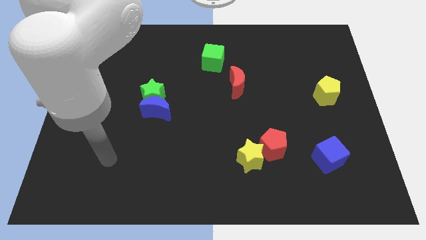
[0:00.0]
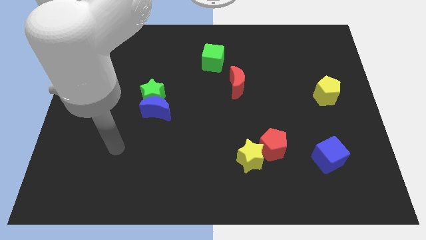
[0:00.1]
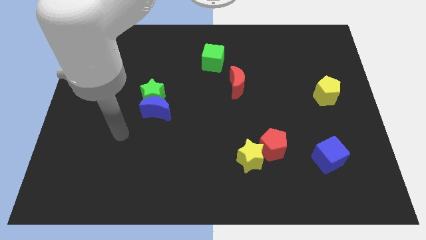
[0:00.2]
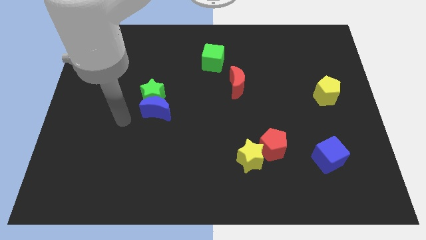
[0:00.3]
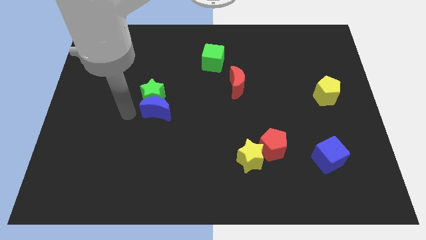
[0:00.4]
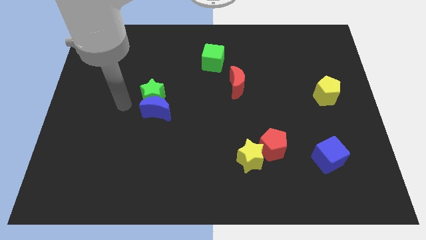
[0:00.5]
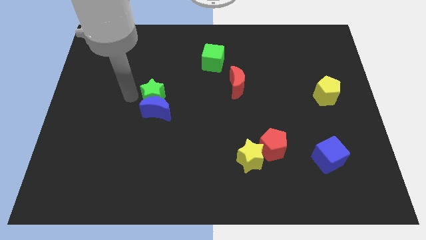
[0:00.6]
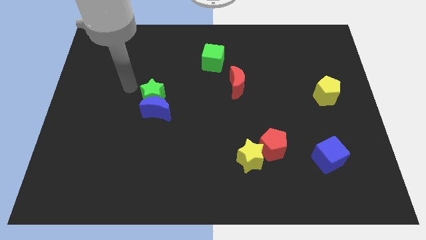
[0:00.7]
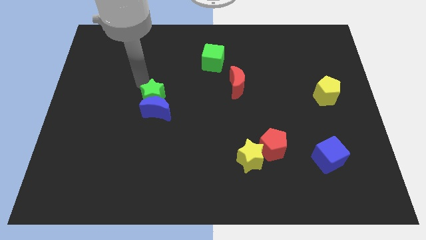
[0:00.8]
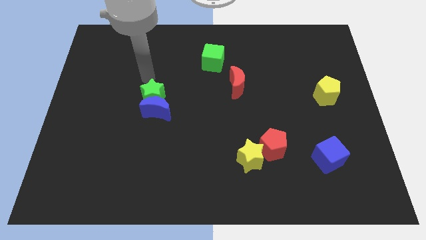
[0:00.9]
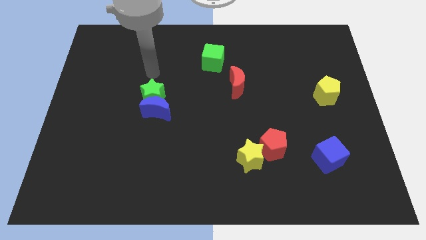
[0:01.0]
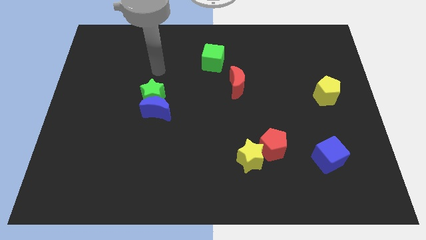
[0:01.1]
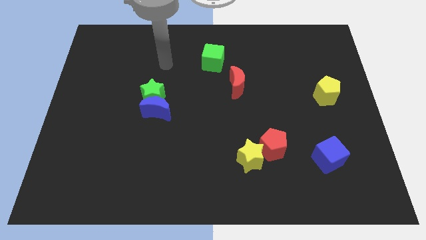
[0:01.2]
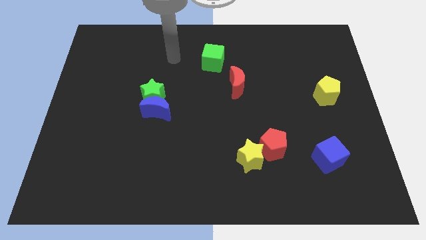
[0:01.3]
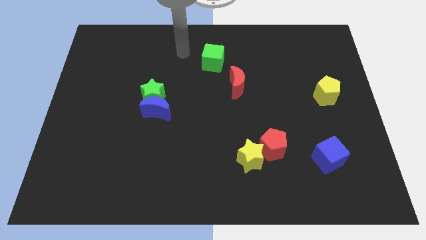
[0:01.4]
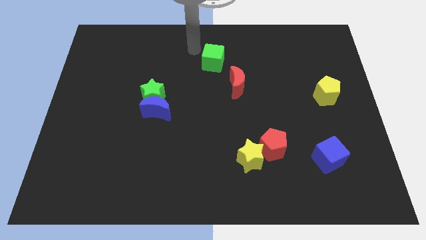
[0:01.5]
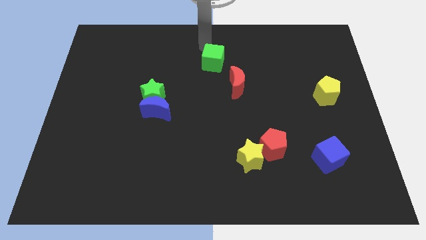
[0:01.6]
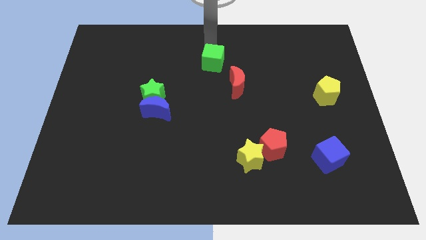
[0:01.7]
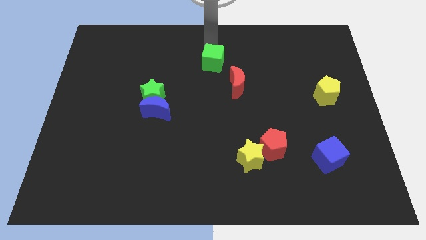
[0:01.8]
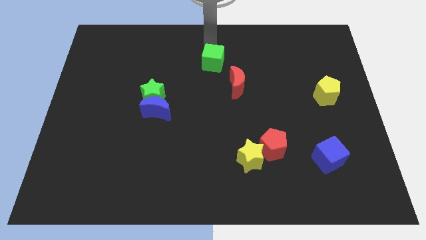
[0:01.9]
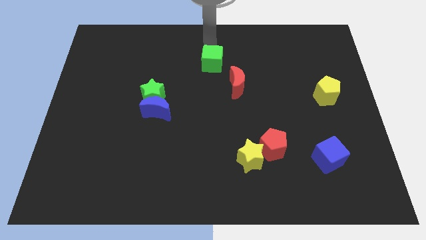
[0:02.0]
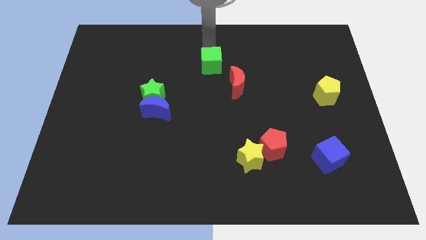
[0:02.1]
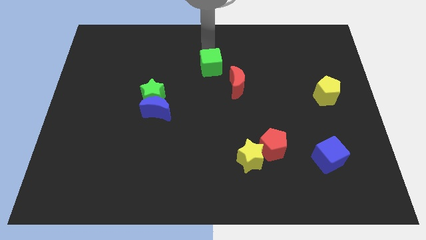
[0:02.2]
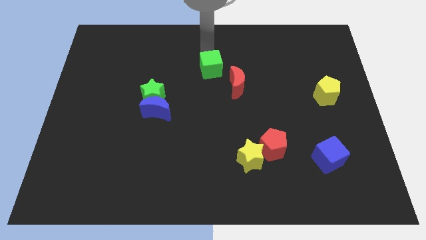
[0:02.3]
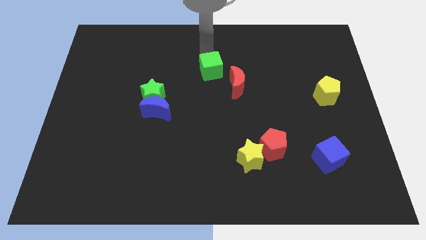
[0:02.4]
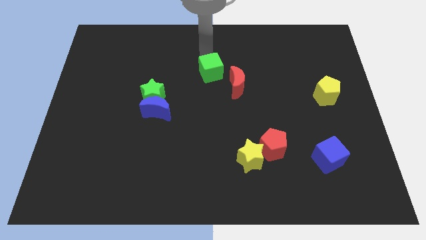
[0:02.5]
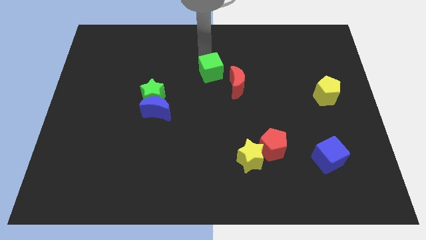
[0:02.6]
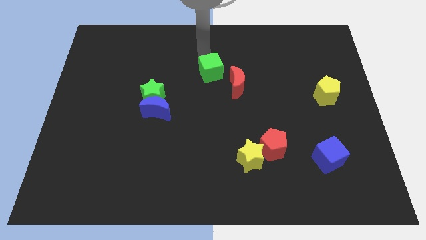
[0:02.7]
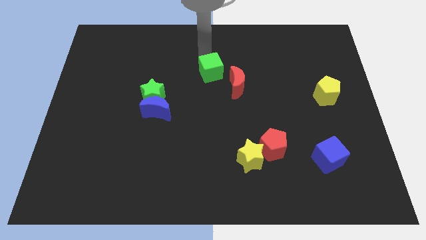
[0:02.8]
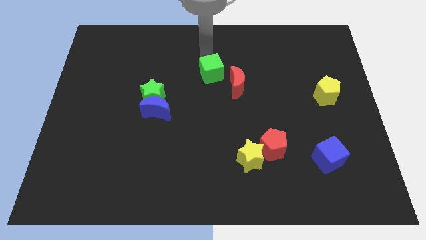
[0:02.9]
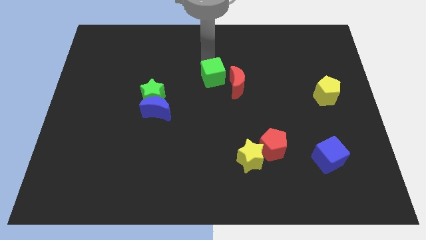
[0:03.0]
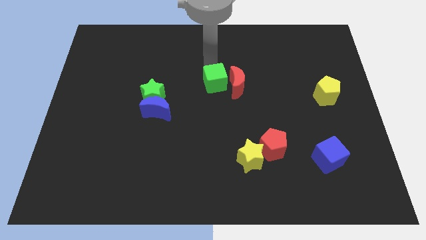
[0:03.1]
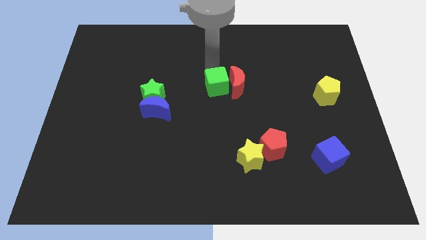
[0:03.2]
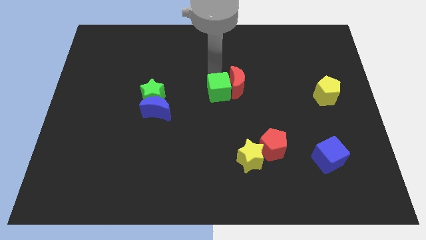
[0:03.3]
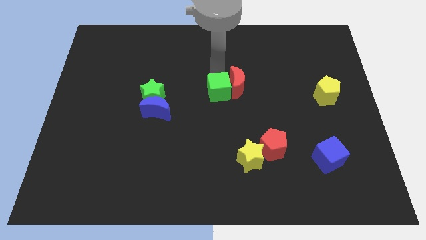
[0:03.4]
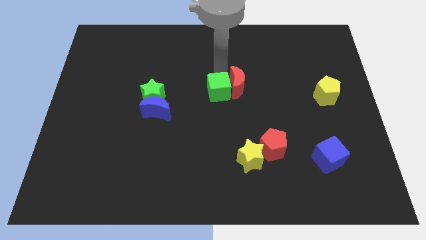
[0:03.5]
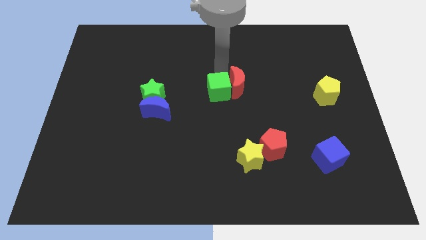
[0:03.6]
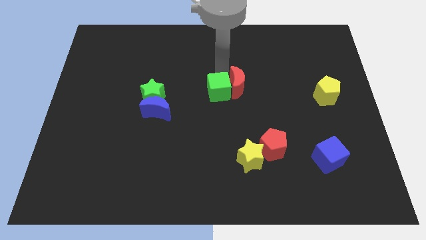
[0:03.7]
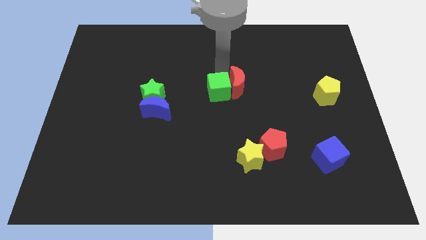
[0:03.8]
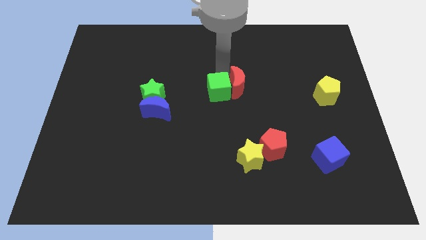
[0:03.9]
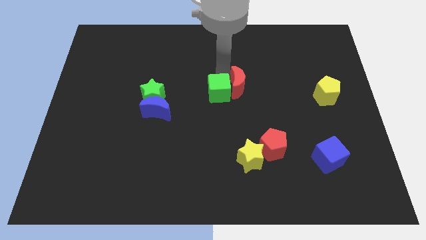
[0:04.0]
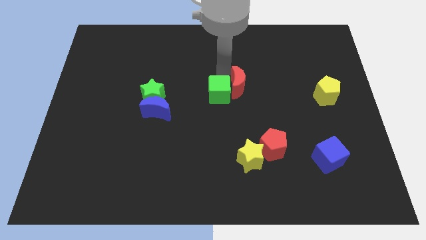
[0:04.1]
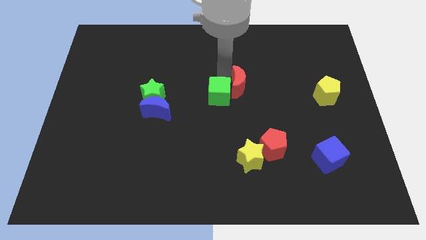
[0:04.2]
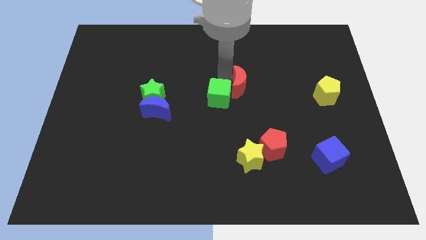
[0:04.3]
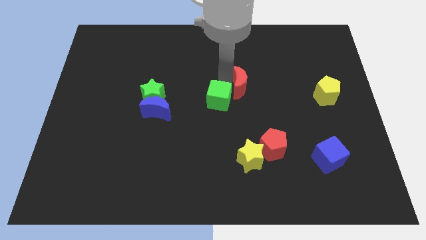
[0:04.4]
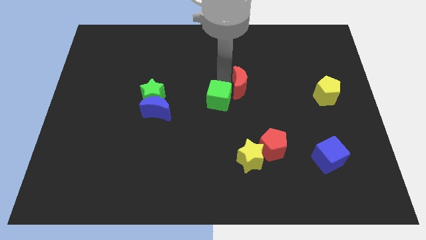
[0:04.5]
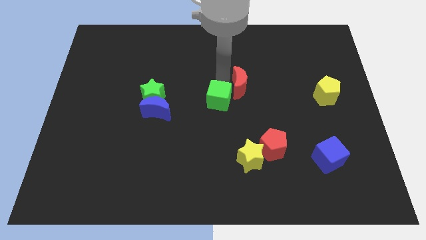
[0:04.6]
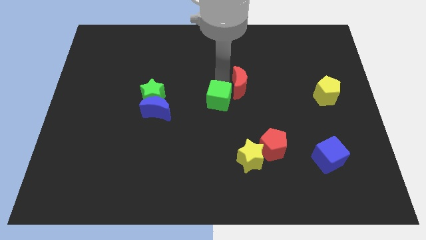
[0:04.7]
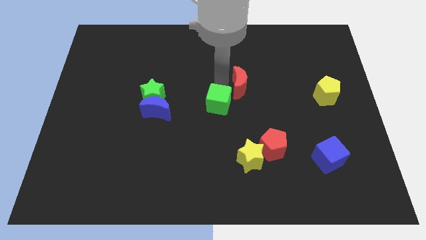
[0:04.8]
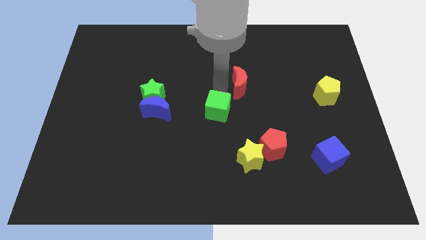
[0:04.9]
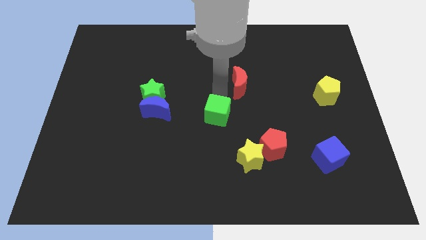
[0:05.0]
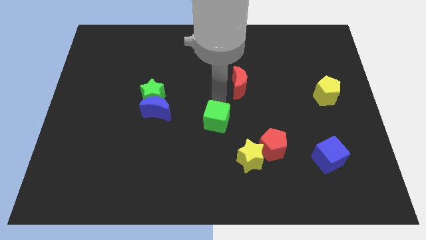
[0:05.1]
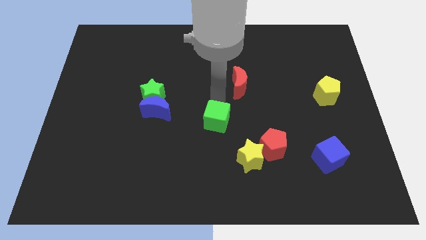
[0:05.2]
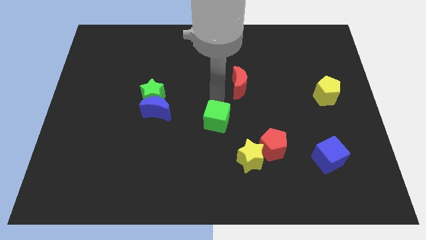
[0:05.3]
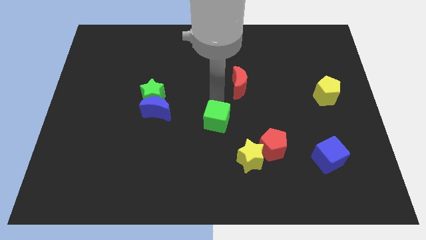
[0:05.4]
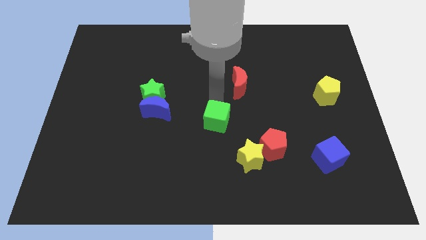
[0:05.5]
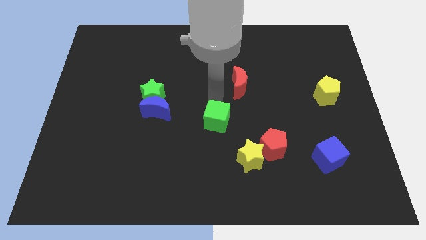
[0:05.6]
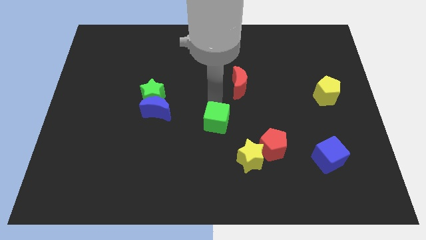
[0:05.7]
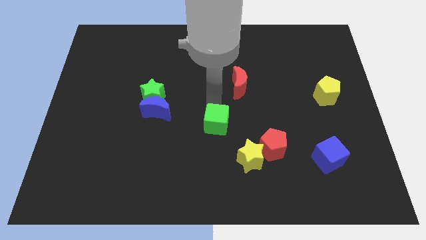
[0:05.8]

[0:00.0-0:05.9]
move the green cube downwards

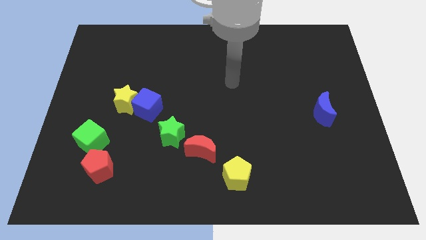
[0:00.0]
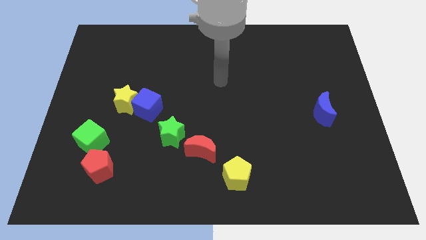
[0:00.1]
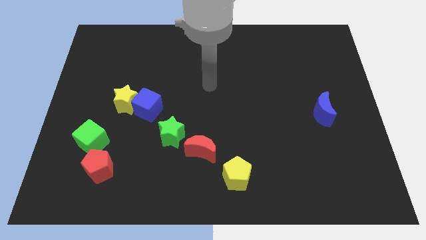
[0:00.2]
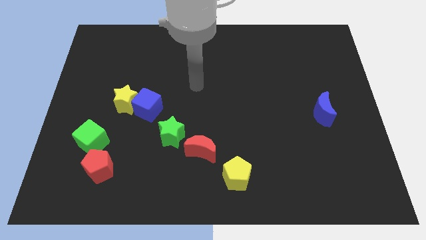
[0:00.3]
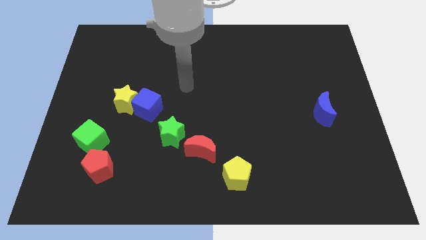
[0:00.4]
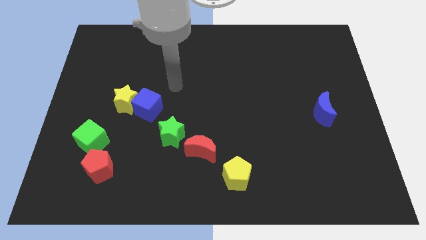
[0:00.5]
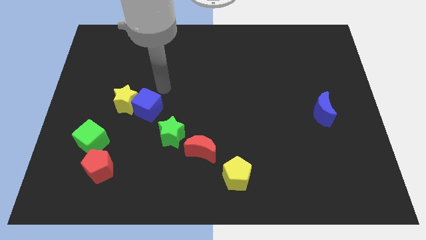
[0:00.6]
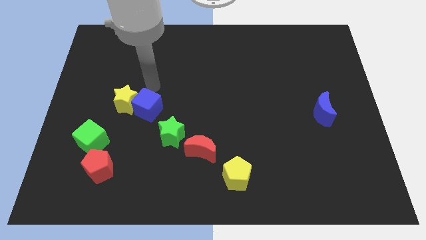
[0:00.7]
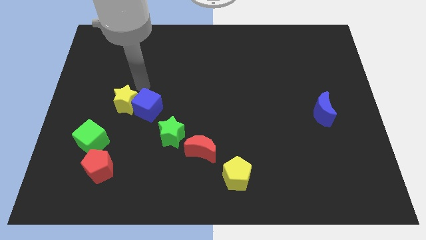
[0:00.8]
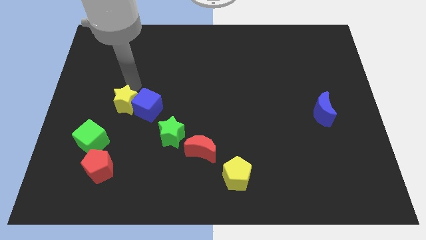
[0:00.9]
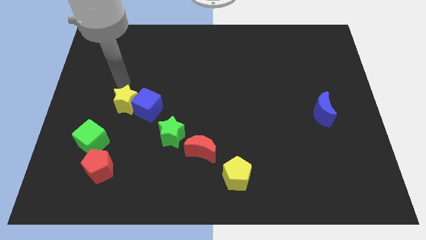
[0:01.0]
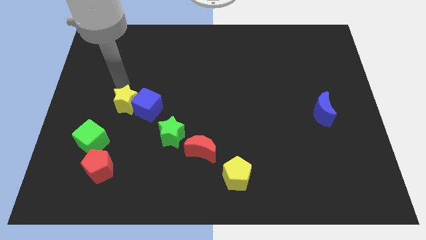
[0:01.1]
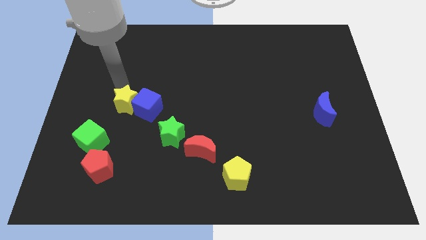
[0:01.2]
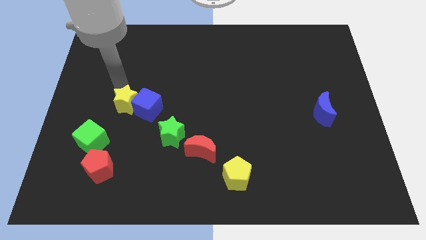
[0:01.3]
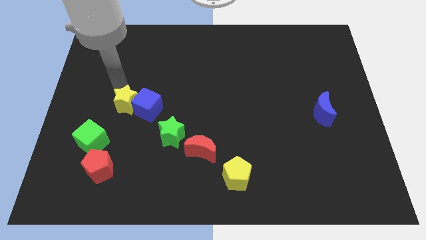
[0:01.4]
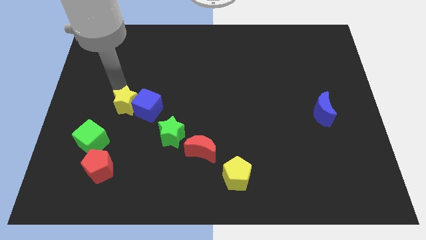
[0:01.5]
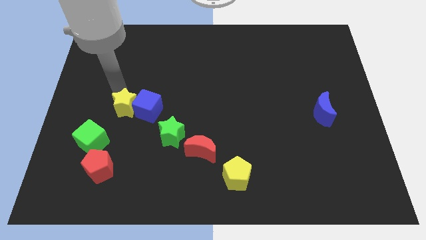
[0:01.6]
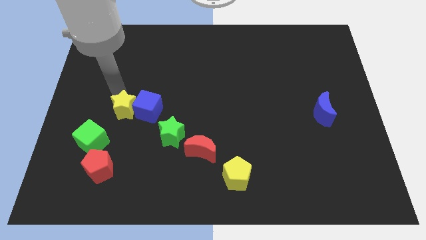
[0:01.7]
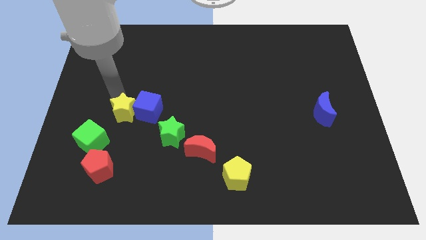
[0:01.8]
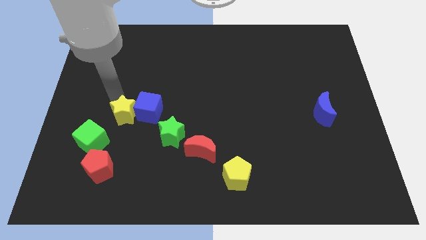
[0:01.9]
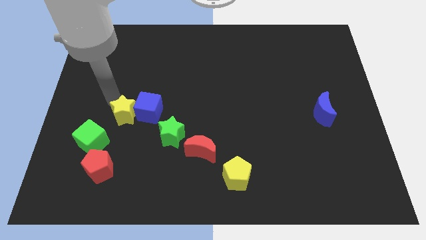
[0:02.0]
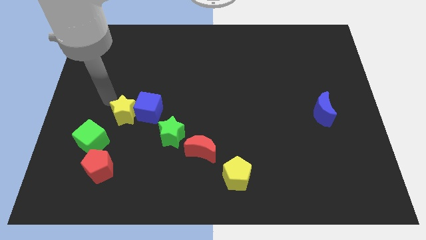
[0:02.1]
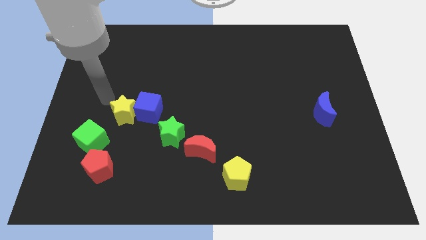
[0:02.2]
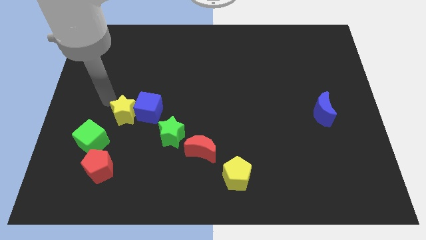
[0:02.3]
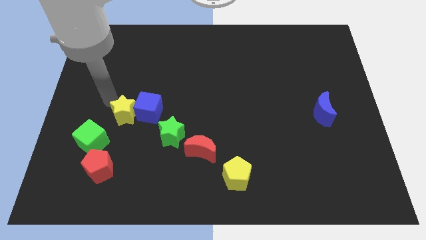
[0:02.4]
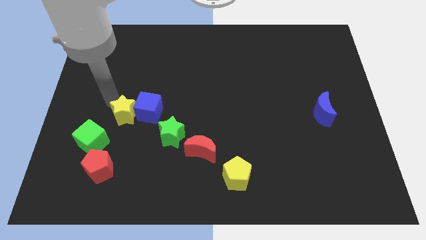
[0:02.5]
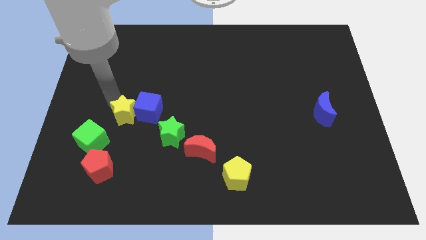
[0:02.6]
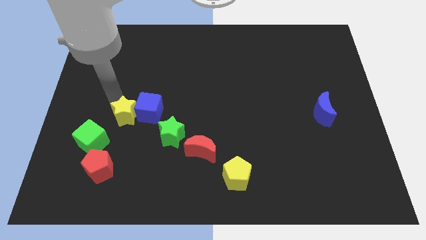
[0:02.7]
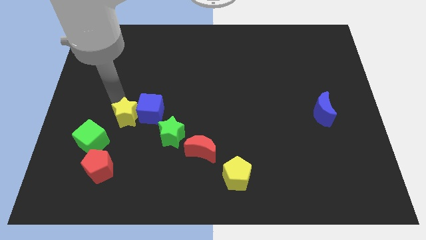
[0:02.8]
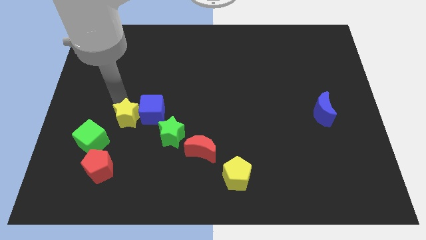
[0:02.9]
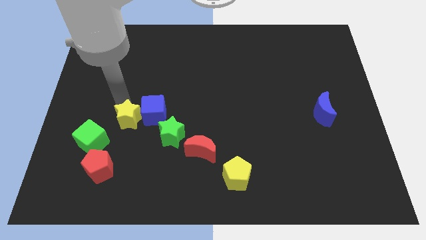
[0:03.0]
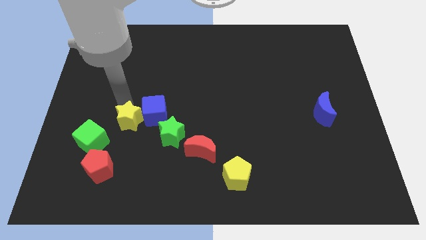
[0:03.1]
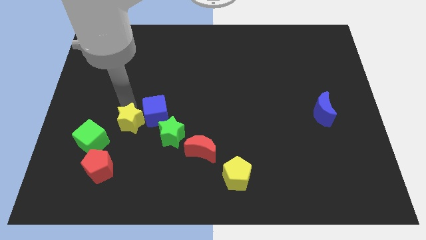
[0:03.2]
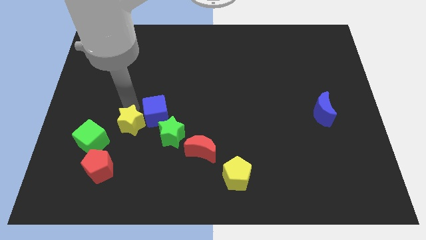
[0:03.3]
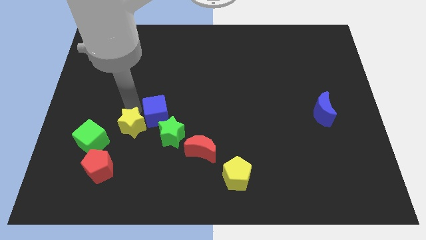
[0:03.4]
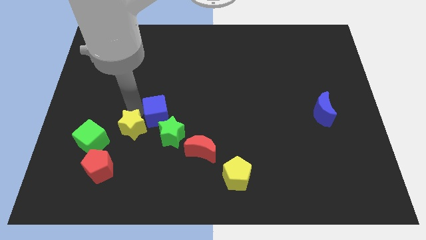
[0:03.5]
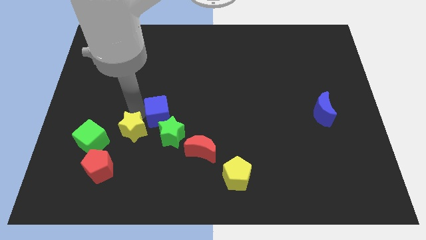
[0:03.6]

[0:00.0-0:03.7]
move the yellow star a bit down and to the right
